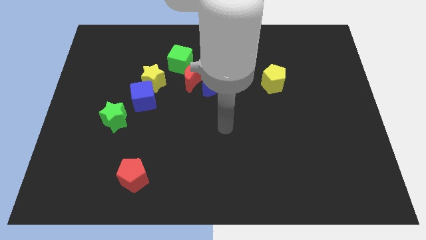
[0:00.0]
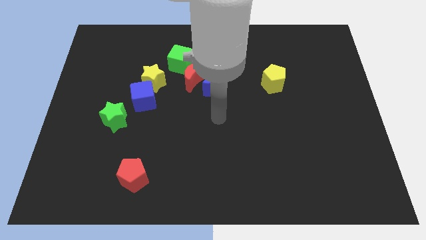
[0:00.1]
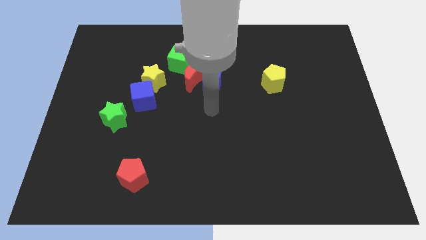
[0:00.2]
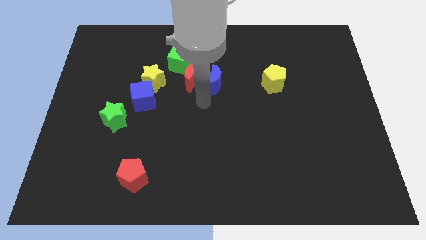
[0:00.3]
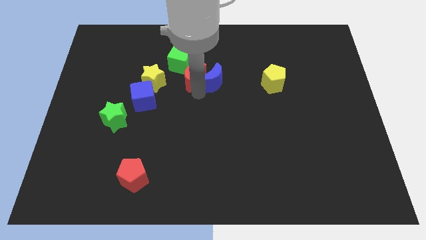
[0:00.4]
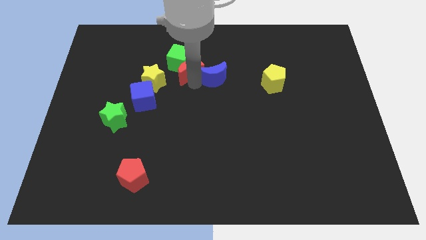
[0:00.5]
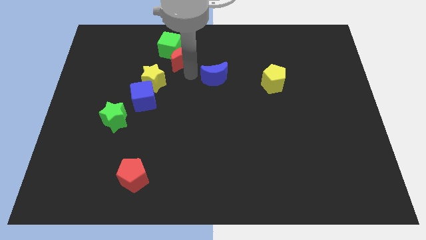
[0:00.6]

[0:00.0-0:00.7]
separate the blue moon from the red moon

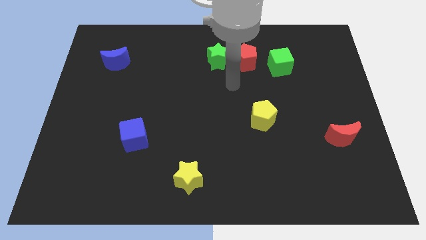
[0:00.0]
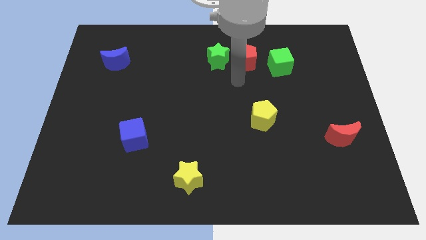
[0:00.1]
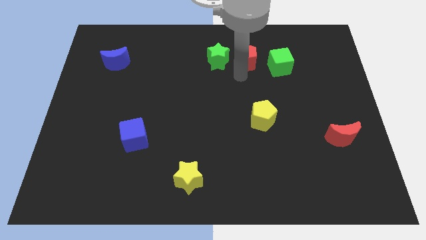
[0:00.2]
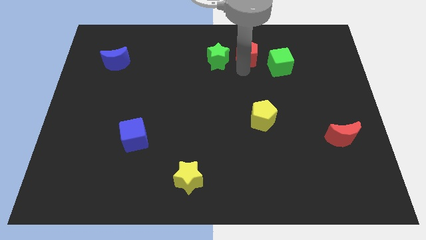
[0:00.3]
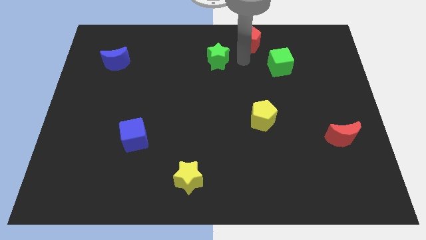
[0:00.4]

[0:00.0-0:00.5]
separate the green star from the red pentagon

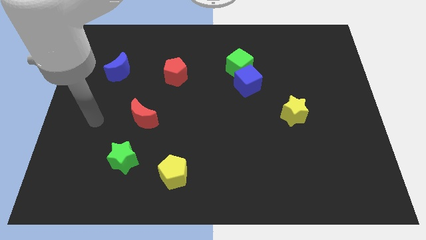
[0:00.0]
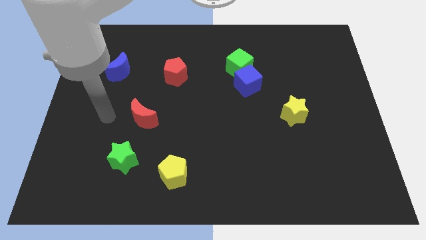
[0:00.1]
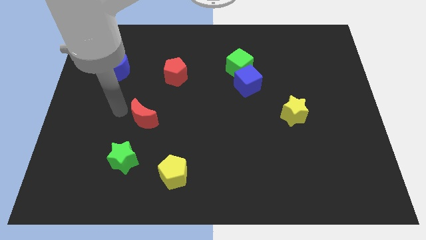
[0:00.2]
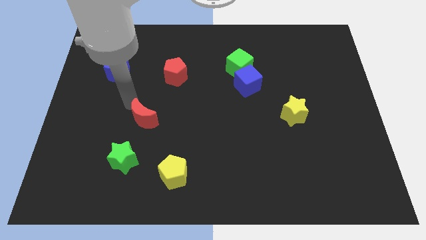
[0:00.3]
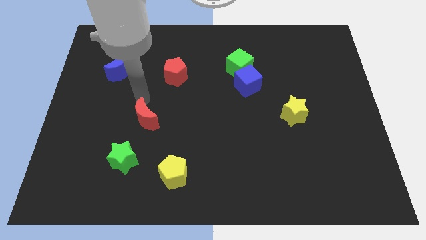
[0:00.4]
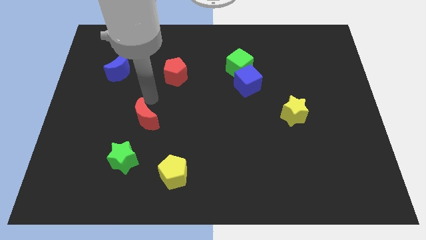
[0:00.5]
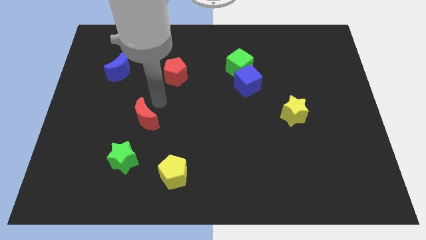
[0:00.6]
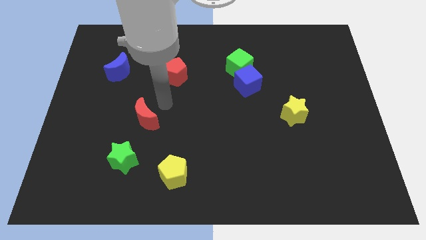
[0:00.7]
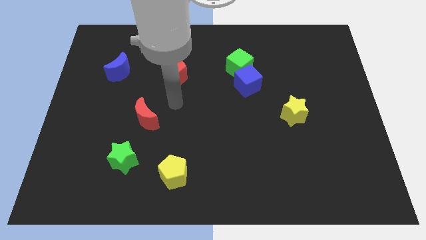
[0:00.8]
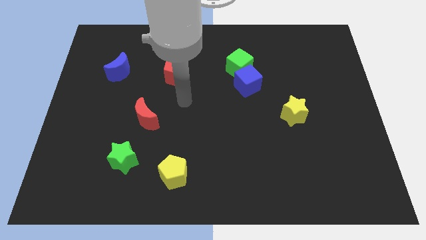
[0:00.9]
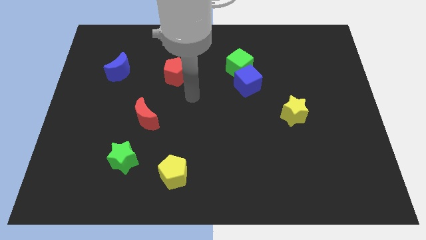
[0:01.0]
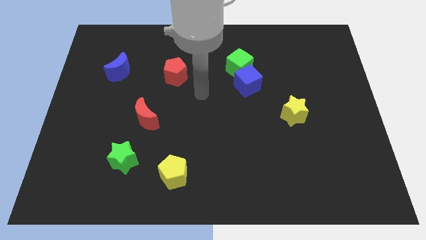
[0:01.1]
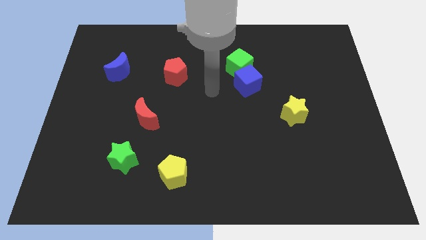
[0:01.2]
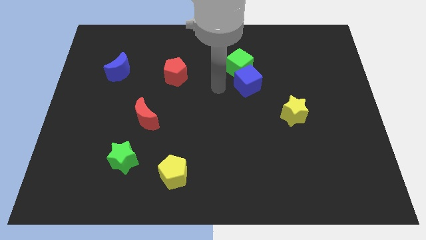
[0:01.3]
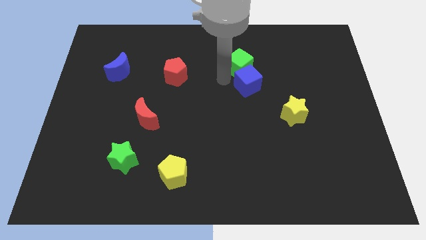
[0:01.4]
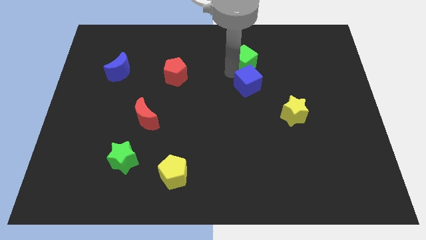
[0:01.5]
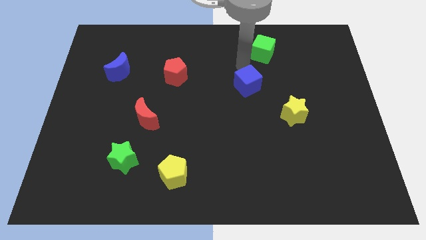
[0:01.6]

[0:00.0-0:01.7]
separate the blue cube from the green cube

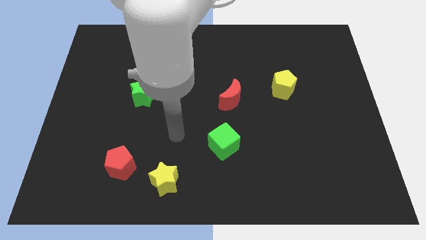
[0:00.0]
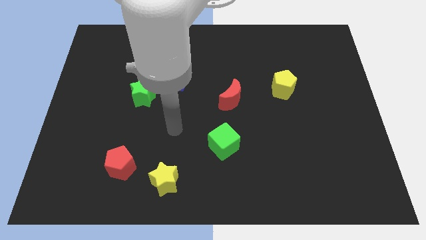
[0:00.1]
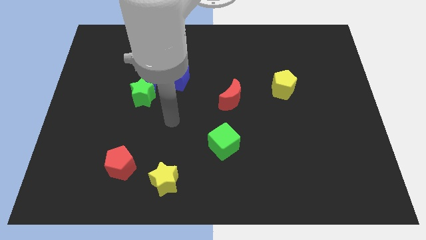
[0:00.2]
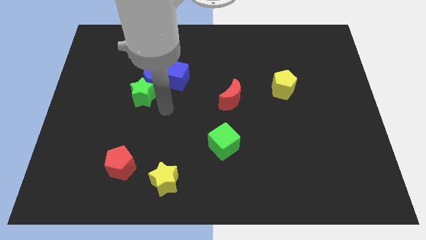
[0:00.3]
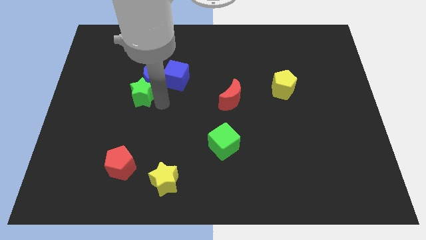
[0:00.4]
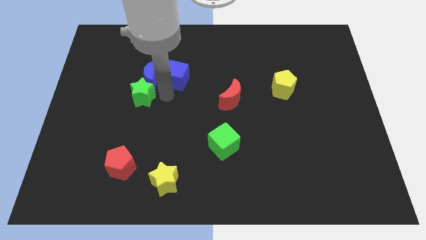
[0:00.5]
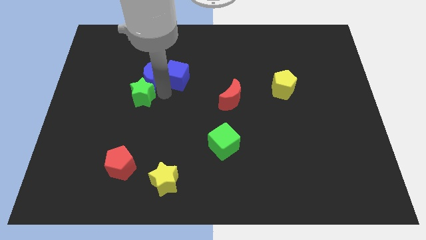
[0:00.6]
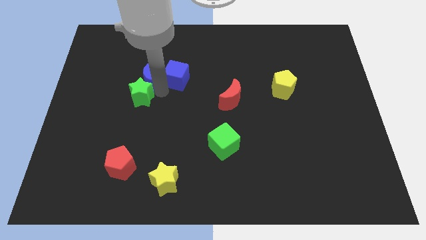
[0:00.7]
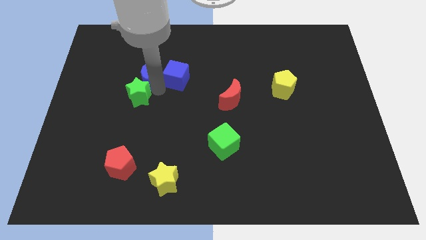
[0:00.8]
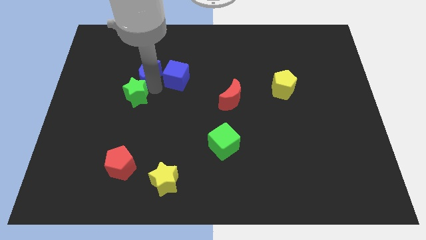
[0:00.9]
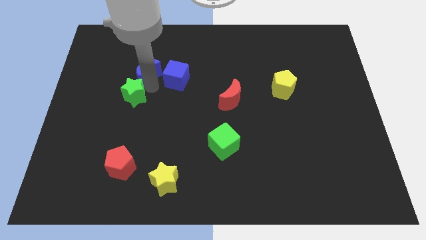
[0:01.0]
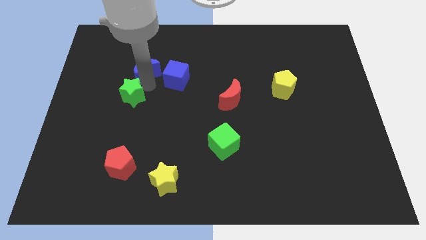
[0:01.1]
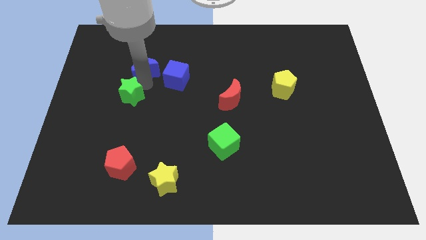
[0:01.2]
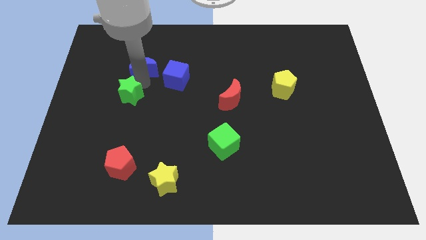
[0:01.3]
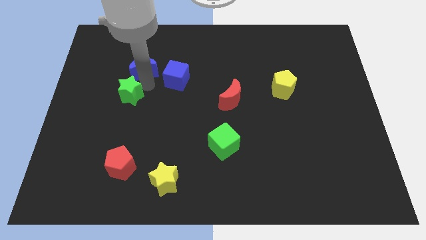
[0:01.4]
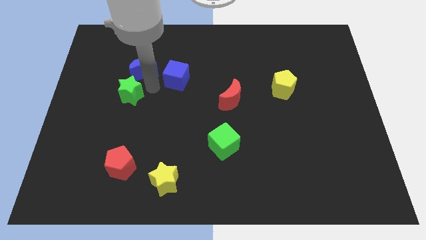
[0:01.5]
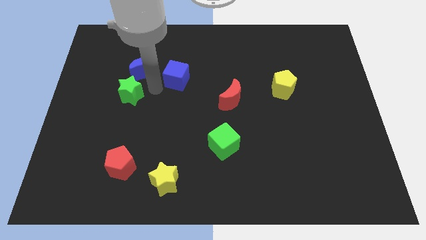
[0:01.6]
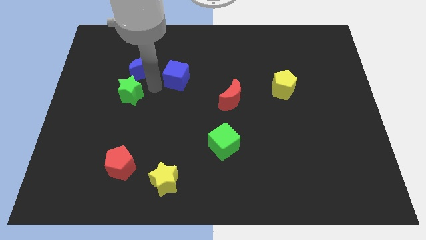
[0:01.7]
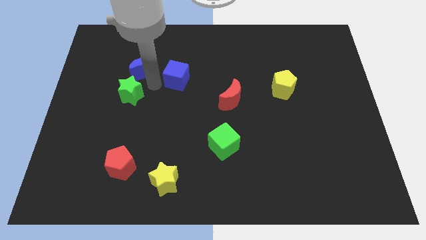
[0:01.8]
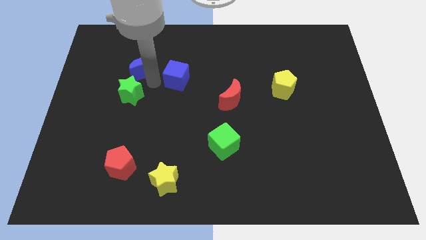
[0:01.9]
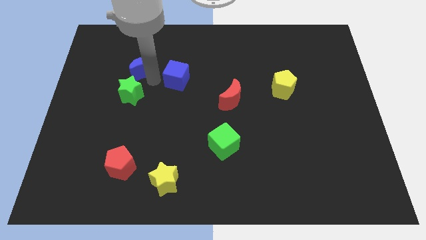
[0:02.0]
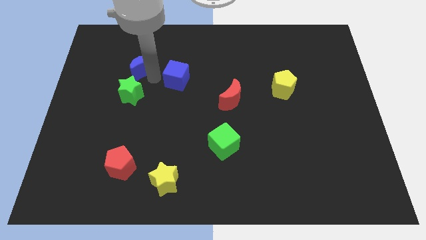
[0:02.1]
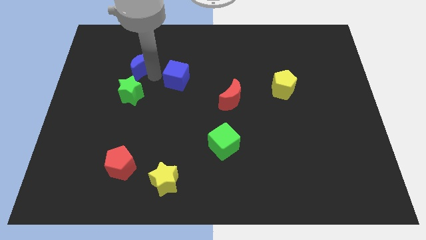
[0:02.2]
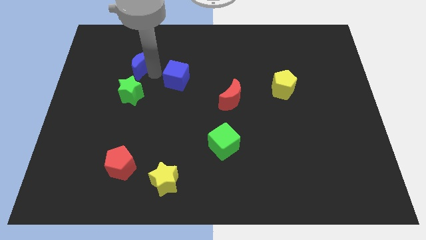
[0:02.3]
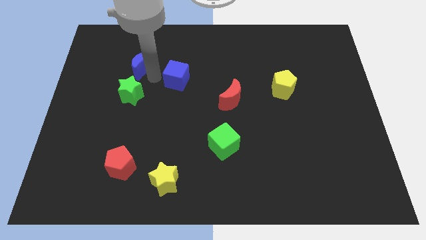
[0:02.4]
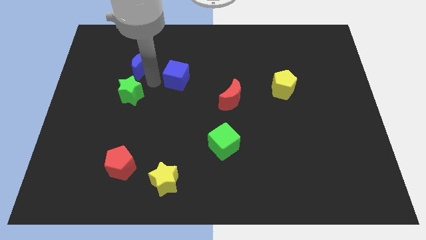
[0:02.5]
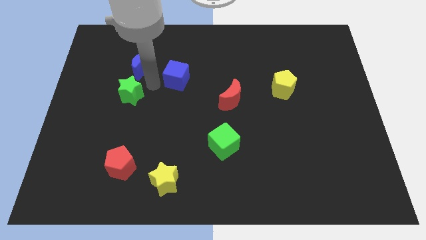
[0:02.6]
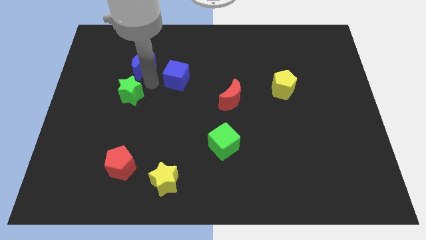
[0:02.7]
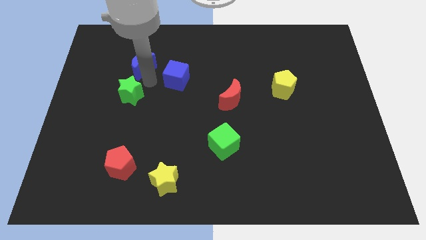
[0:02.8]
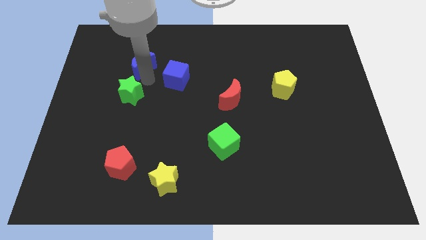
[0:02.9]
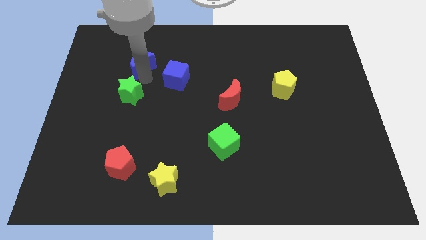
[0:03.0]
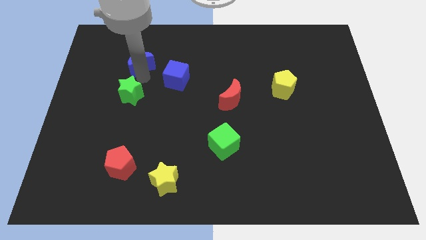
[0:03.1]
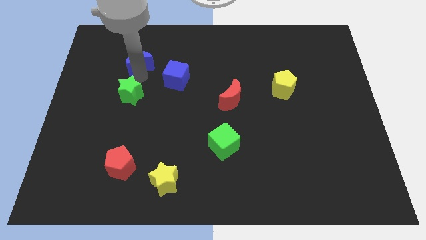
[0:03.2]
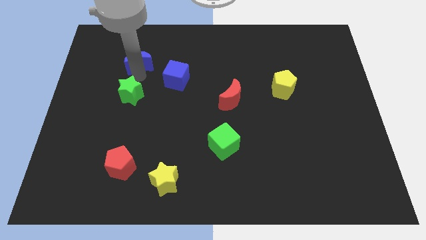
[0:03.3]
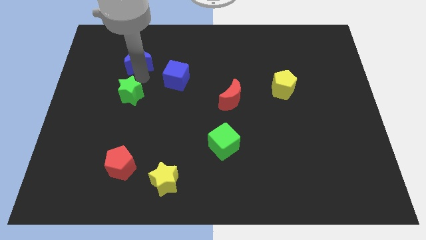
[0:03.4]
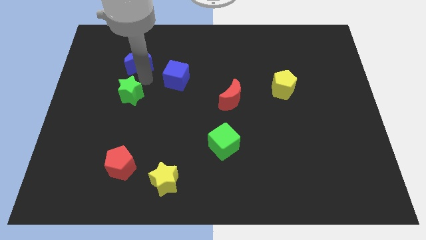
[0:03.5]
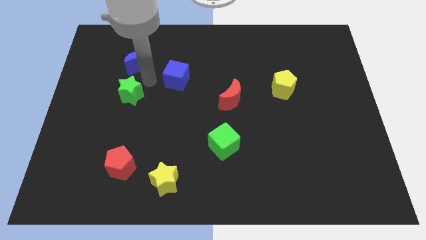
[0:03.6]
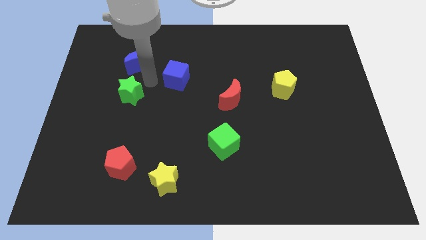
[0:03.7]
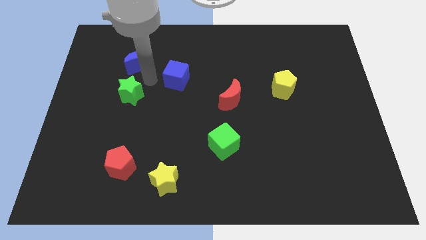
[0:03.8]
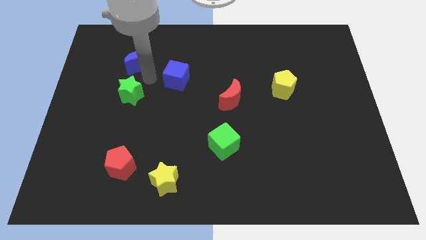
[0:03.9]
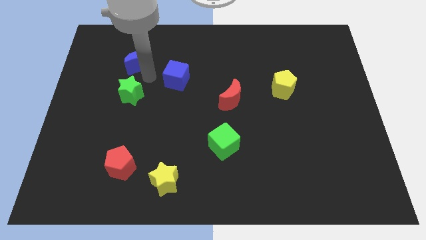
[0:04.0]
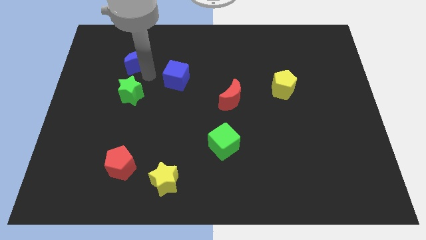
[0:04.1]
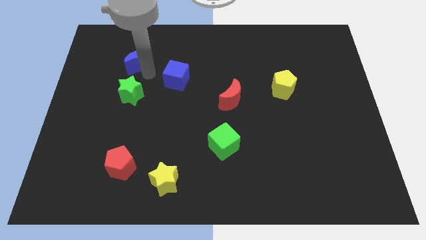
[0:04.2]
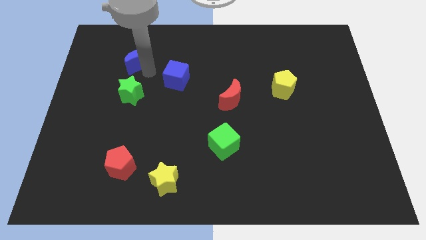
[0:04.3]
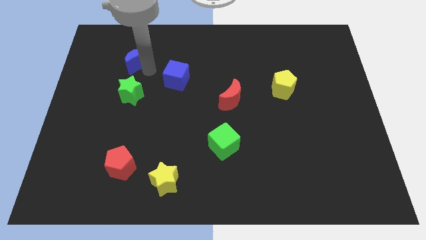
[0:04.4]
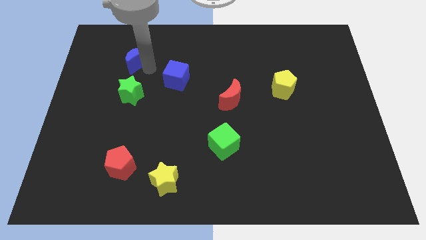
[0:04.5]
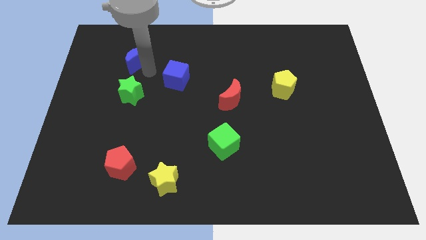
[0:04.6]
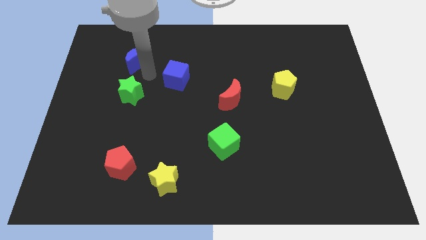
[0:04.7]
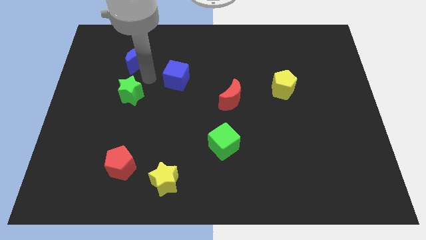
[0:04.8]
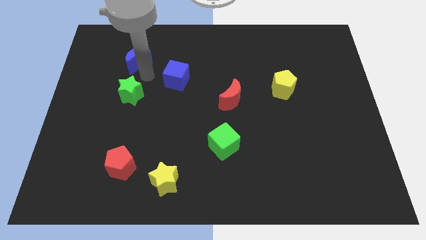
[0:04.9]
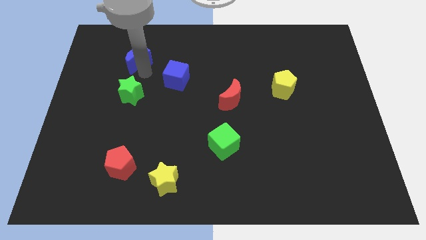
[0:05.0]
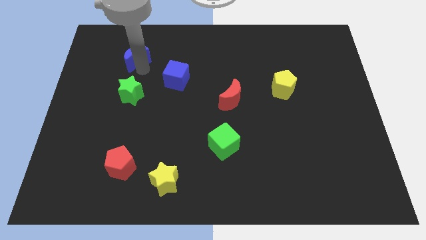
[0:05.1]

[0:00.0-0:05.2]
move the blue moon away from the green star and blue cube

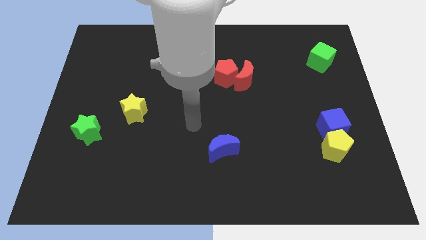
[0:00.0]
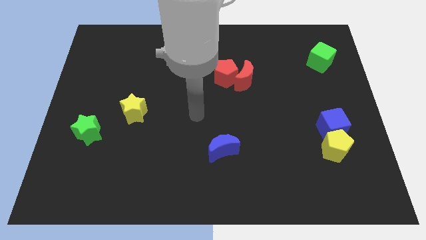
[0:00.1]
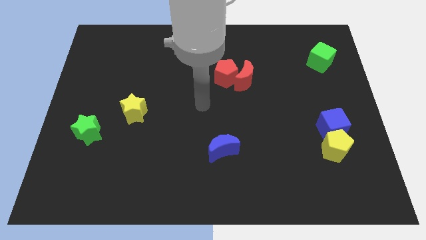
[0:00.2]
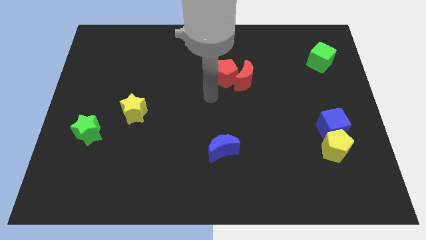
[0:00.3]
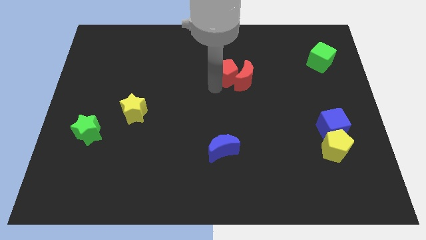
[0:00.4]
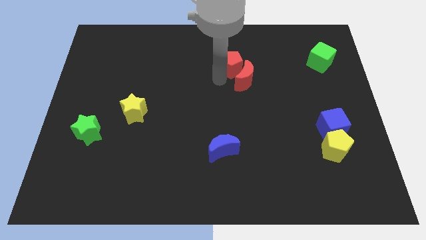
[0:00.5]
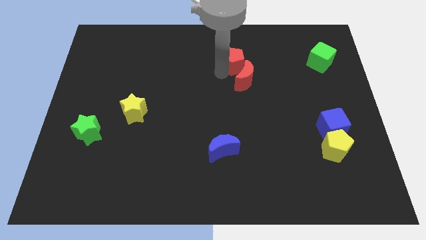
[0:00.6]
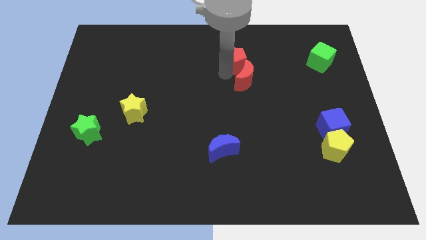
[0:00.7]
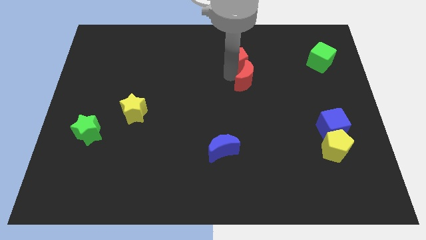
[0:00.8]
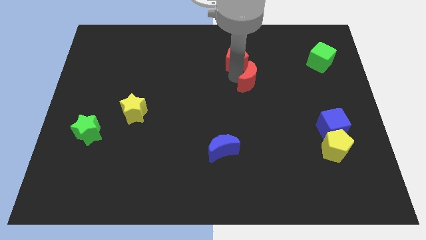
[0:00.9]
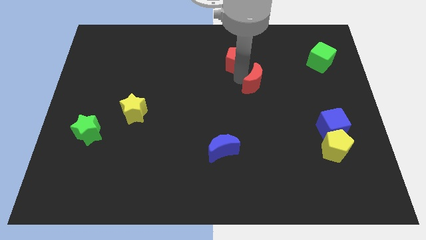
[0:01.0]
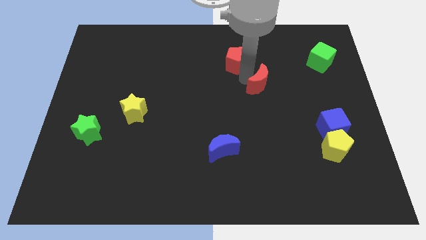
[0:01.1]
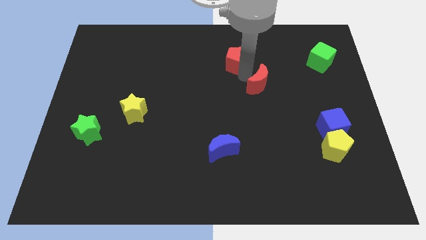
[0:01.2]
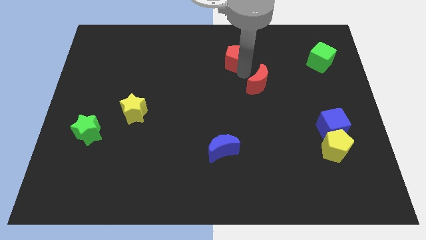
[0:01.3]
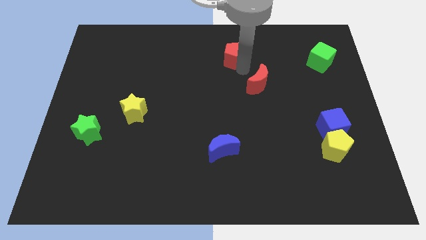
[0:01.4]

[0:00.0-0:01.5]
move the red moon away from the red pentagon
